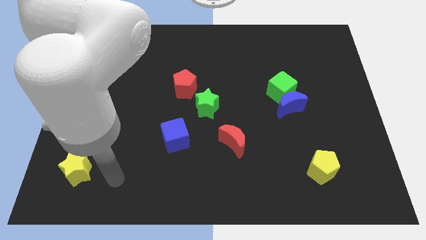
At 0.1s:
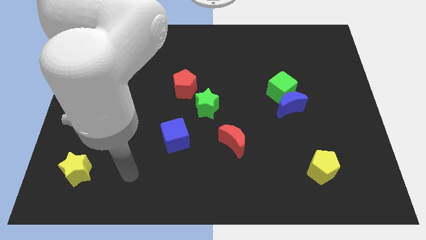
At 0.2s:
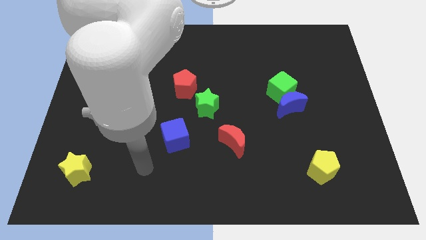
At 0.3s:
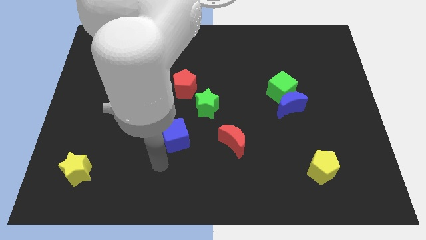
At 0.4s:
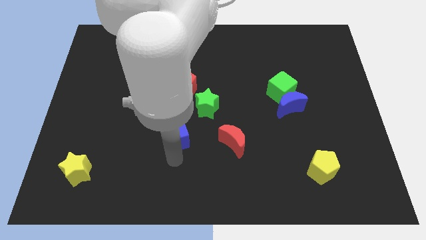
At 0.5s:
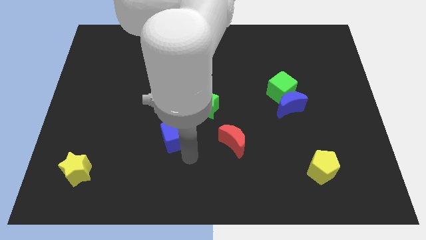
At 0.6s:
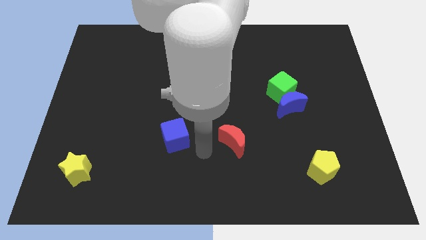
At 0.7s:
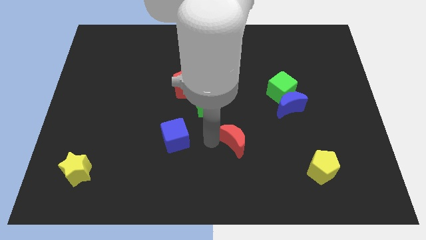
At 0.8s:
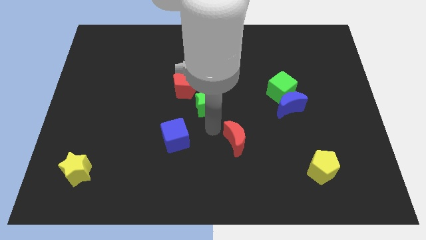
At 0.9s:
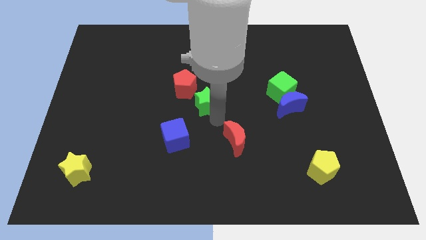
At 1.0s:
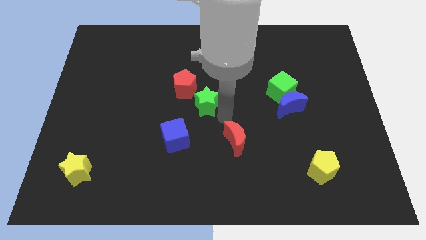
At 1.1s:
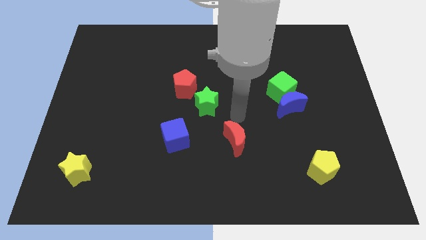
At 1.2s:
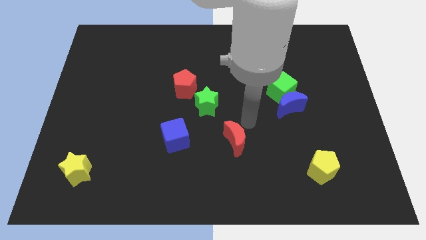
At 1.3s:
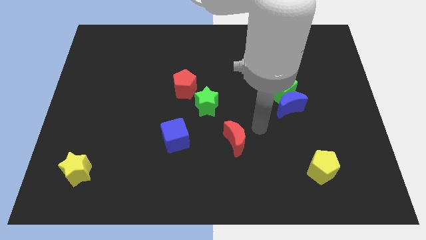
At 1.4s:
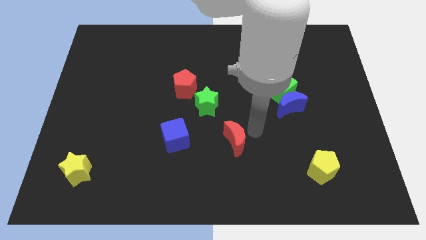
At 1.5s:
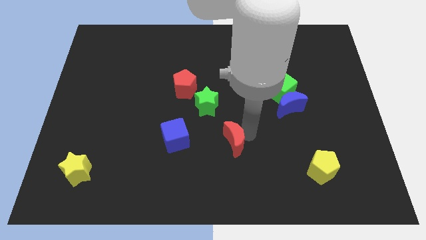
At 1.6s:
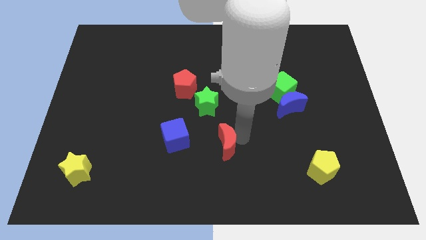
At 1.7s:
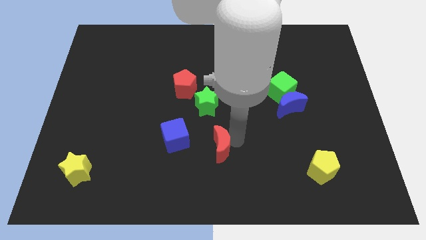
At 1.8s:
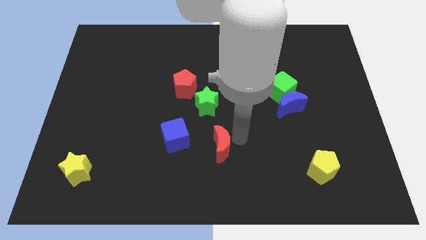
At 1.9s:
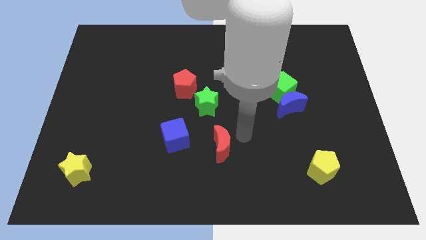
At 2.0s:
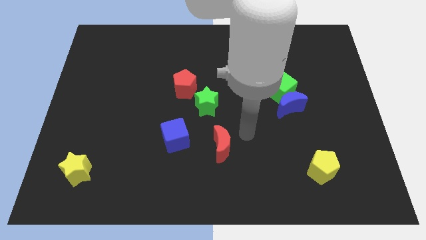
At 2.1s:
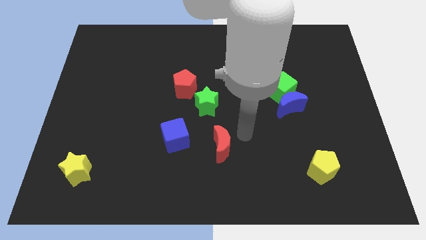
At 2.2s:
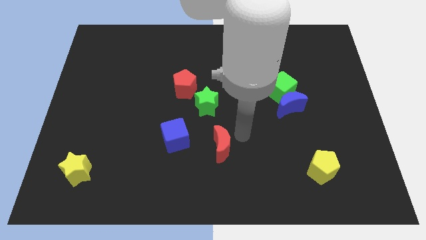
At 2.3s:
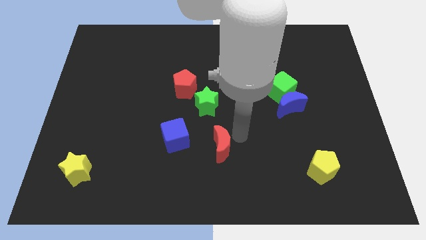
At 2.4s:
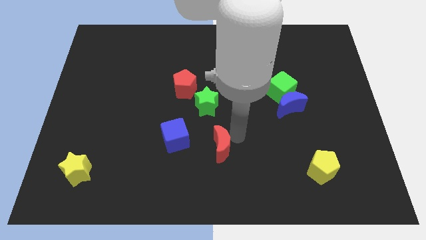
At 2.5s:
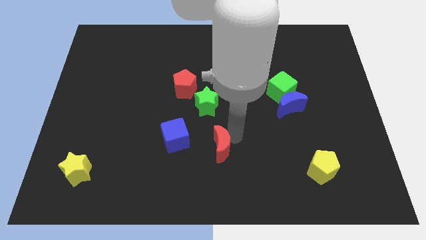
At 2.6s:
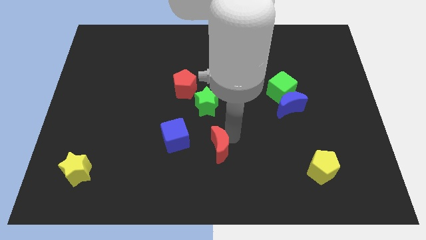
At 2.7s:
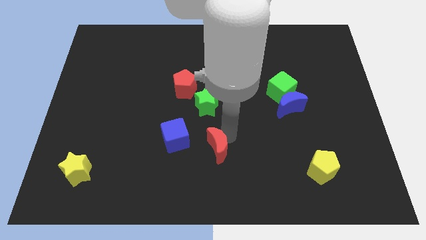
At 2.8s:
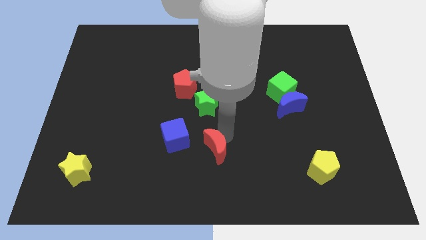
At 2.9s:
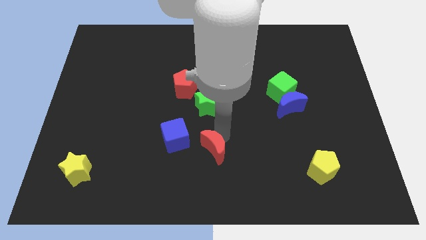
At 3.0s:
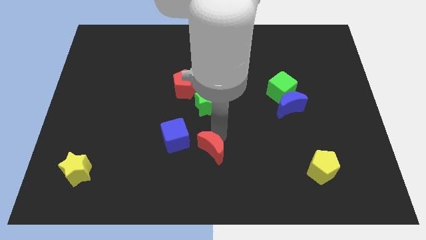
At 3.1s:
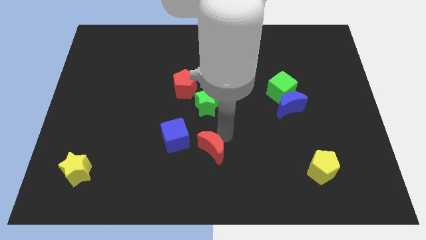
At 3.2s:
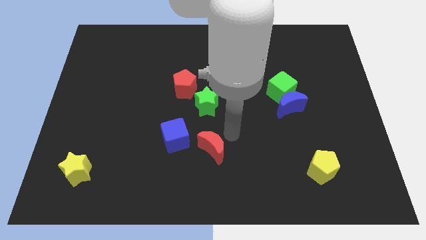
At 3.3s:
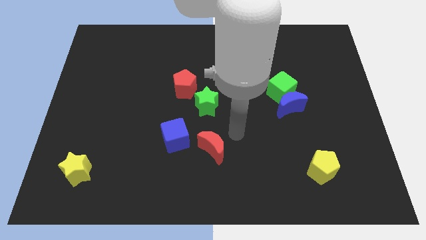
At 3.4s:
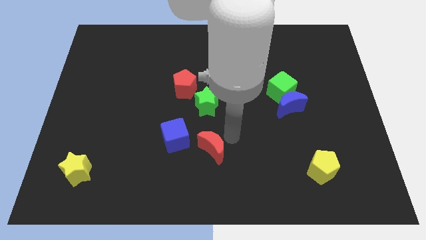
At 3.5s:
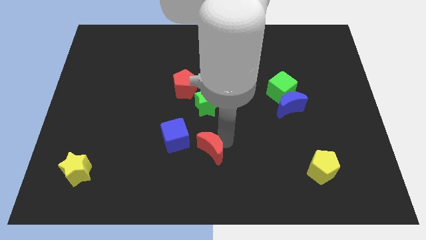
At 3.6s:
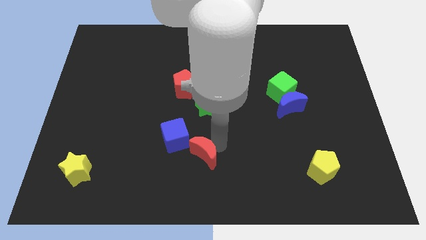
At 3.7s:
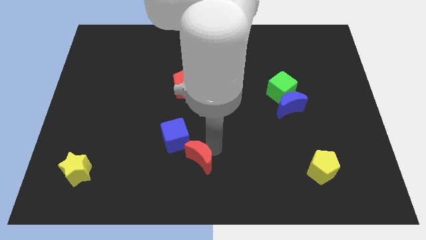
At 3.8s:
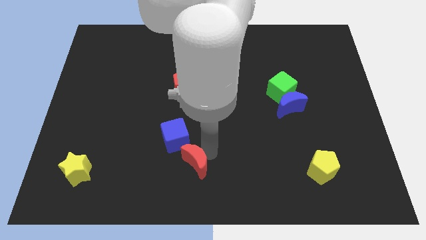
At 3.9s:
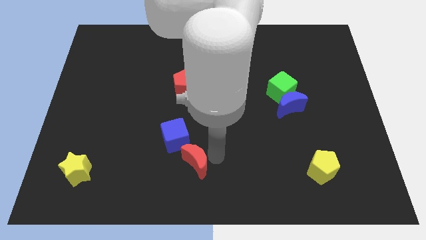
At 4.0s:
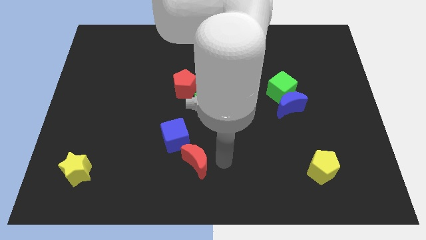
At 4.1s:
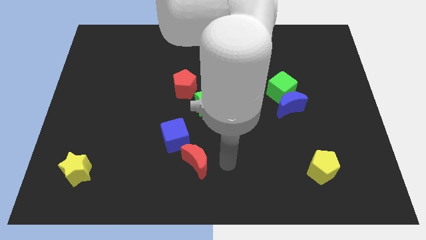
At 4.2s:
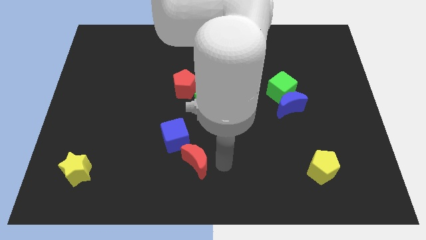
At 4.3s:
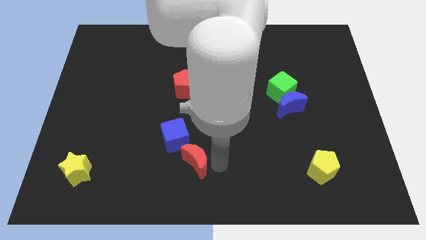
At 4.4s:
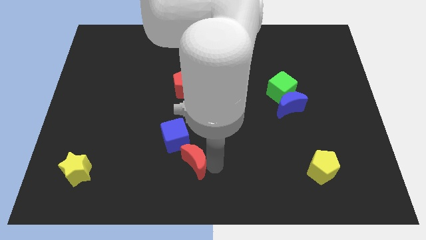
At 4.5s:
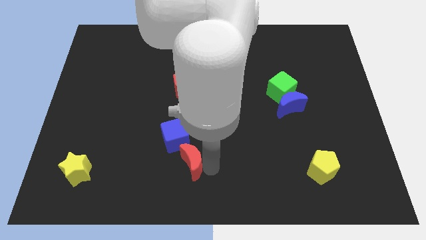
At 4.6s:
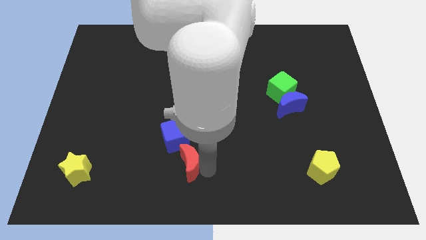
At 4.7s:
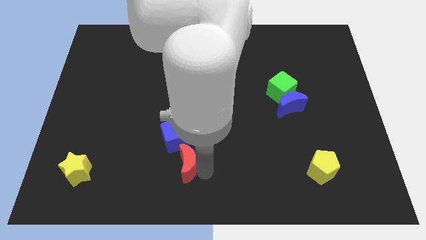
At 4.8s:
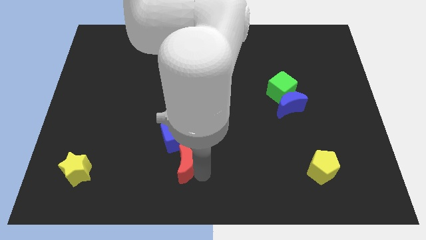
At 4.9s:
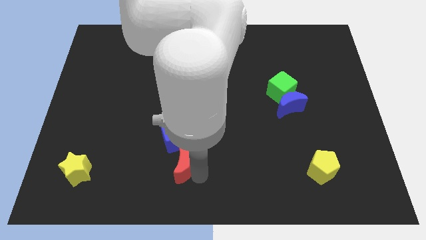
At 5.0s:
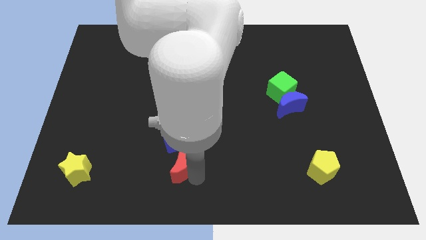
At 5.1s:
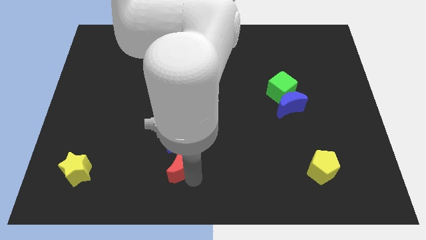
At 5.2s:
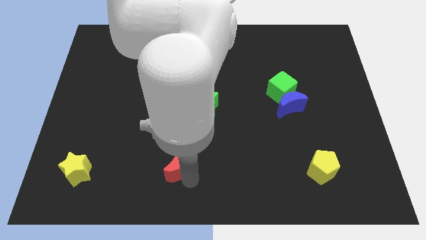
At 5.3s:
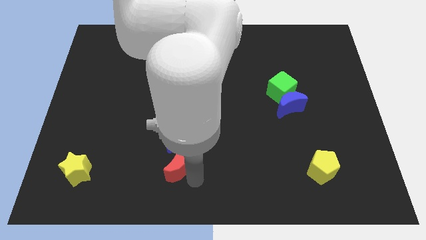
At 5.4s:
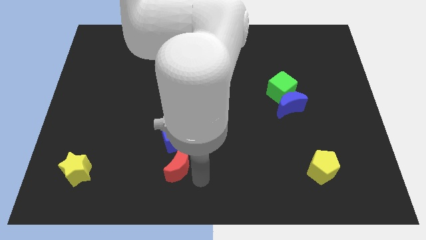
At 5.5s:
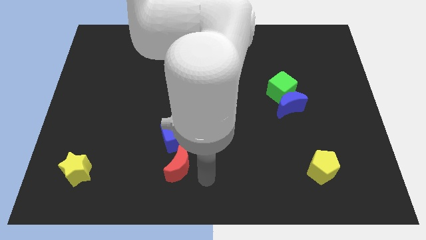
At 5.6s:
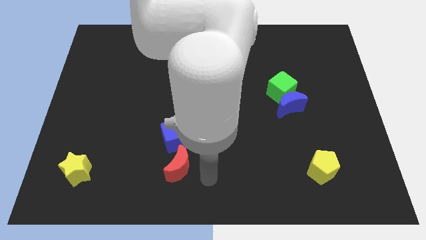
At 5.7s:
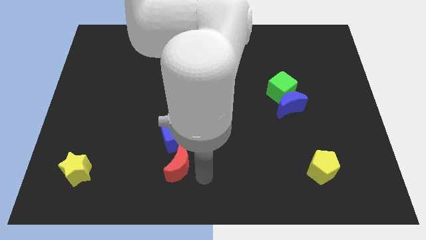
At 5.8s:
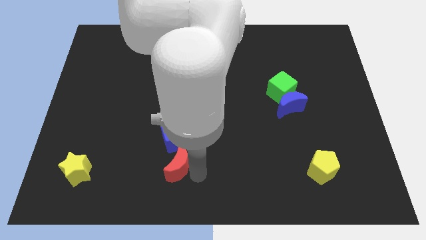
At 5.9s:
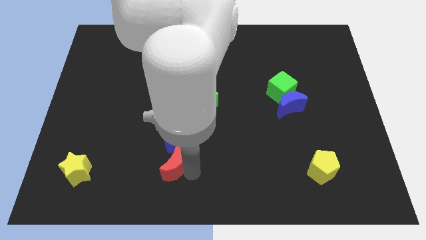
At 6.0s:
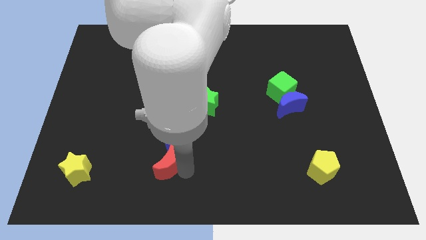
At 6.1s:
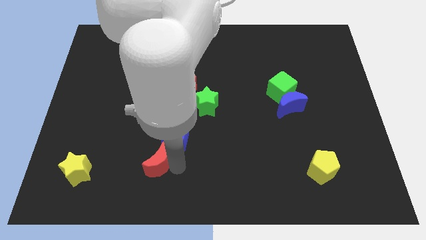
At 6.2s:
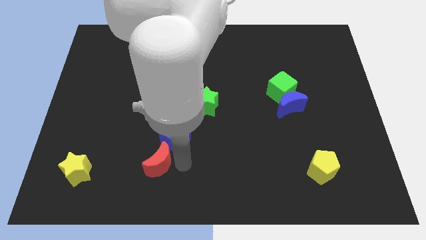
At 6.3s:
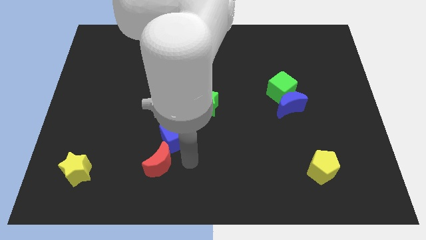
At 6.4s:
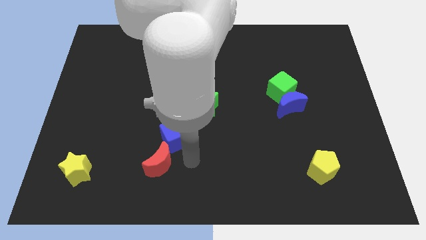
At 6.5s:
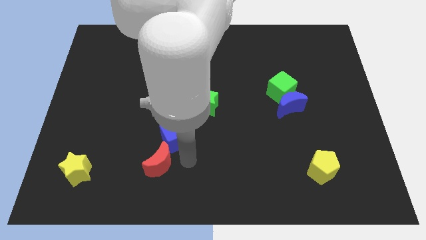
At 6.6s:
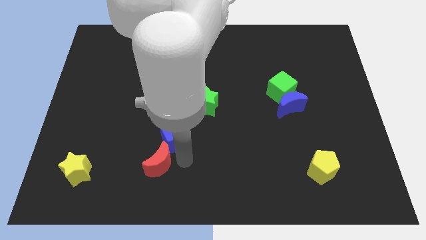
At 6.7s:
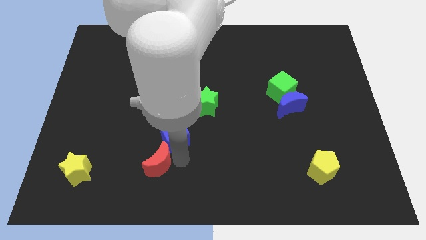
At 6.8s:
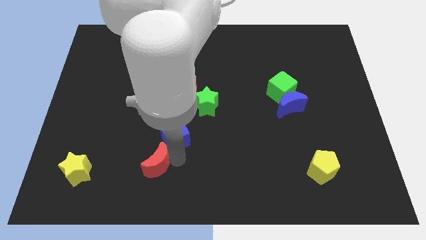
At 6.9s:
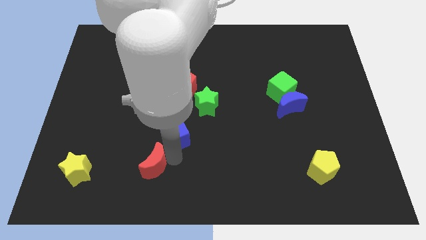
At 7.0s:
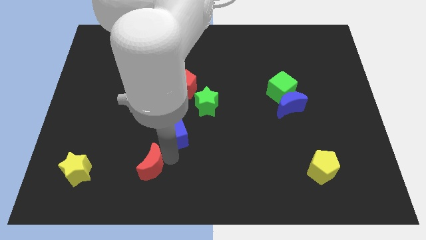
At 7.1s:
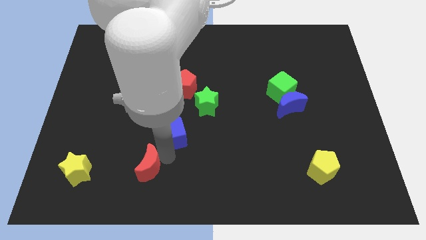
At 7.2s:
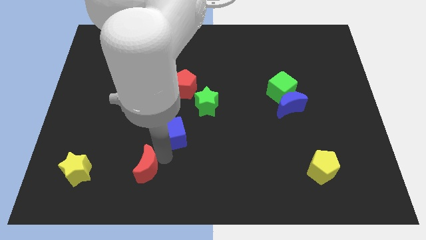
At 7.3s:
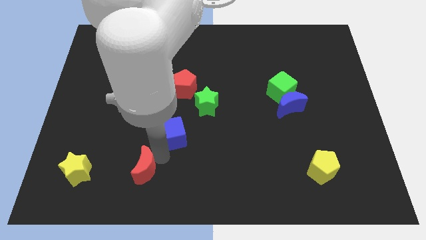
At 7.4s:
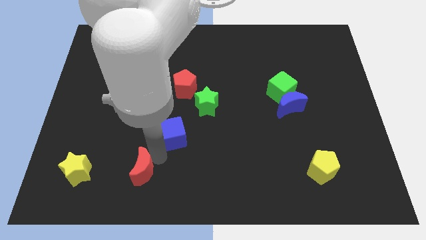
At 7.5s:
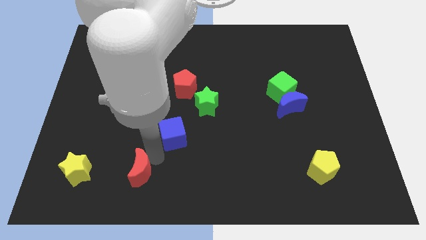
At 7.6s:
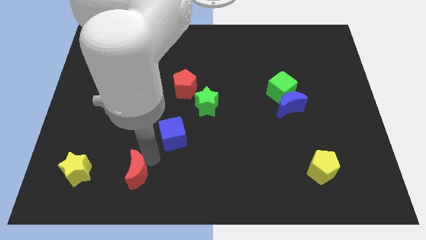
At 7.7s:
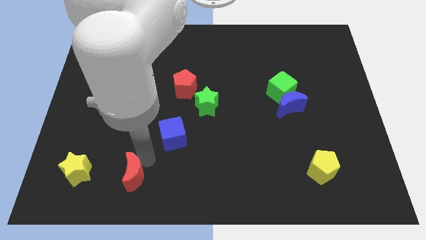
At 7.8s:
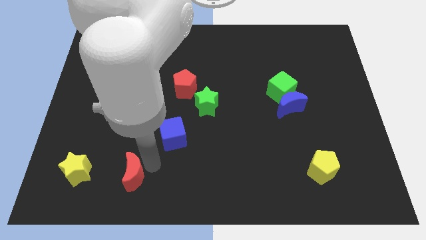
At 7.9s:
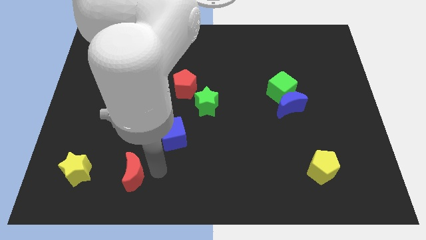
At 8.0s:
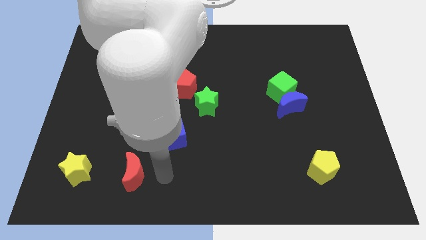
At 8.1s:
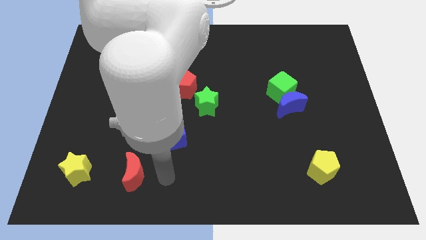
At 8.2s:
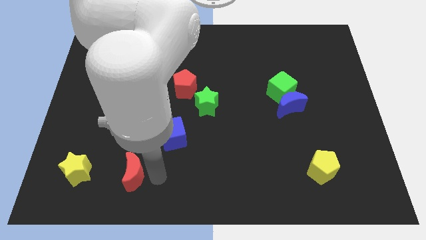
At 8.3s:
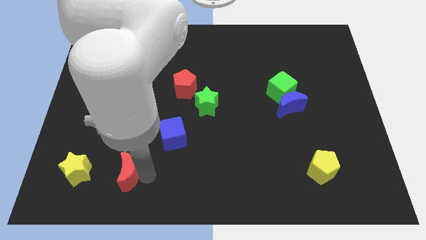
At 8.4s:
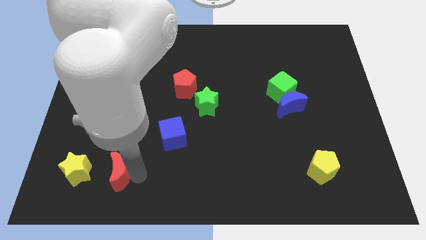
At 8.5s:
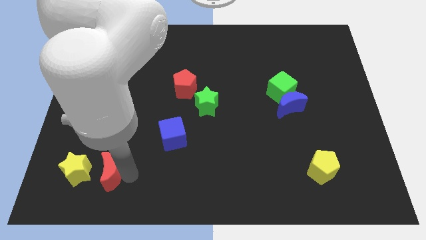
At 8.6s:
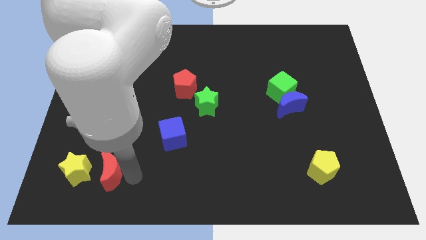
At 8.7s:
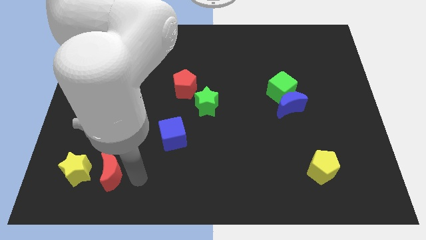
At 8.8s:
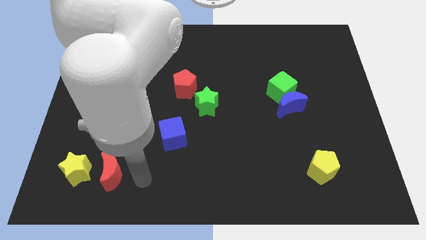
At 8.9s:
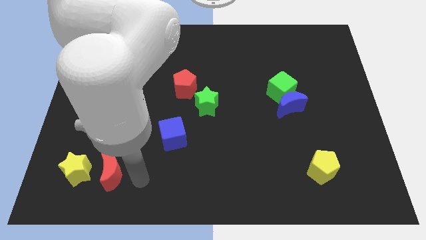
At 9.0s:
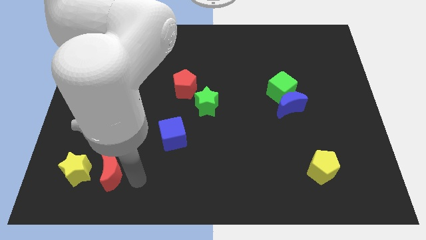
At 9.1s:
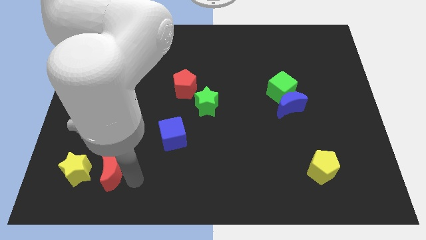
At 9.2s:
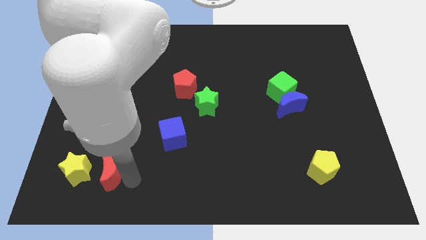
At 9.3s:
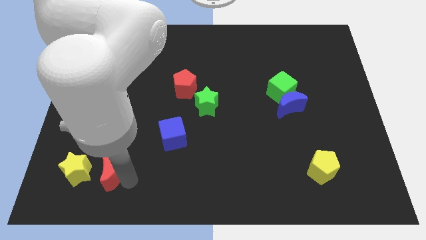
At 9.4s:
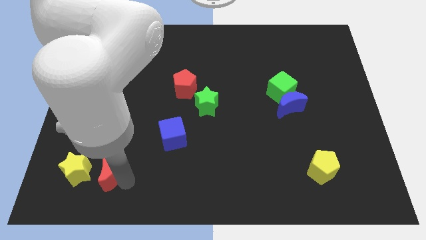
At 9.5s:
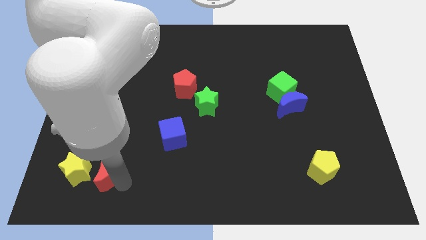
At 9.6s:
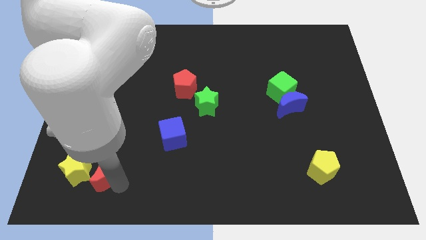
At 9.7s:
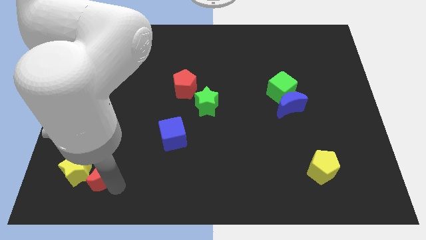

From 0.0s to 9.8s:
push the red moon next to the yellow star
